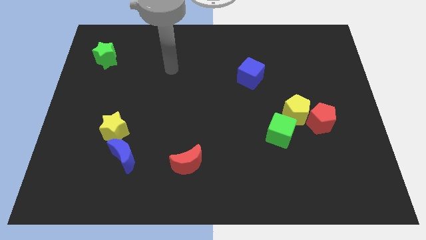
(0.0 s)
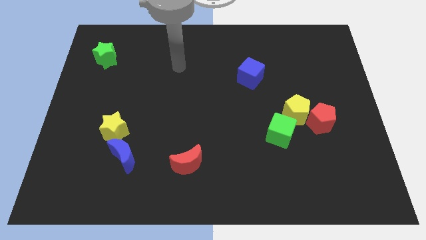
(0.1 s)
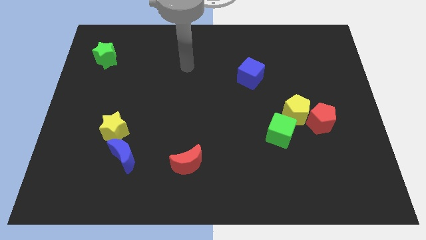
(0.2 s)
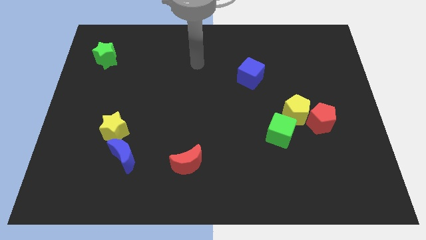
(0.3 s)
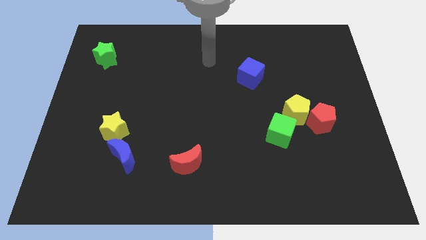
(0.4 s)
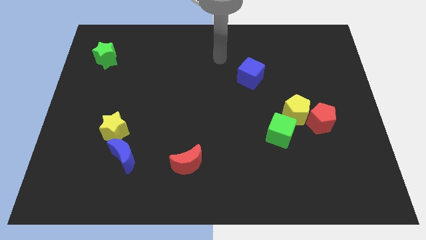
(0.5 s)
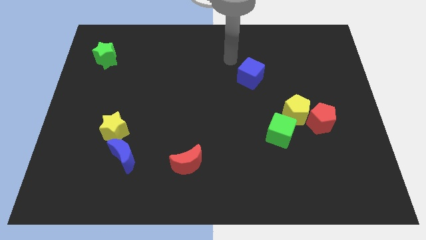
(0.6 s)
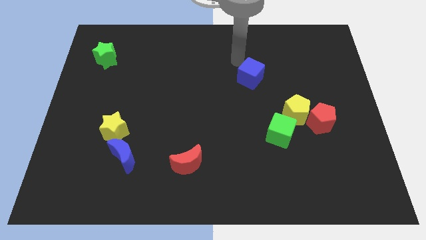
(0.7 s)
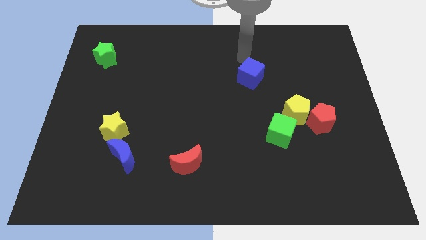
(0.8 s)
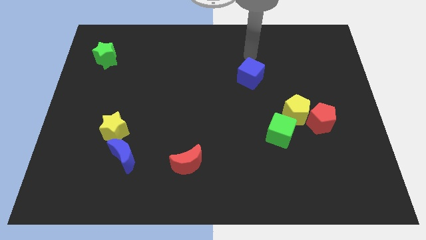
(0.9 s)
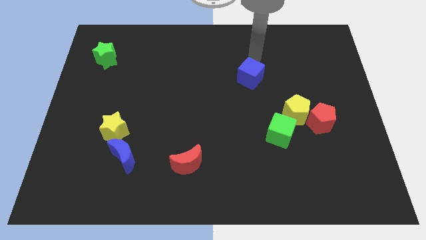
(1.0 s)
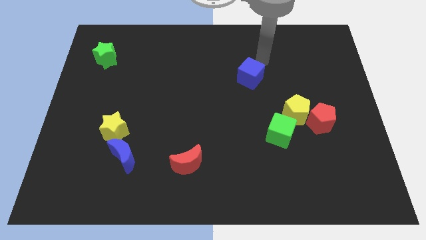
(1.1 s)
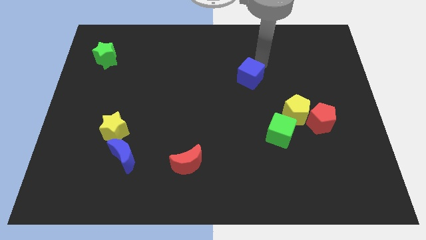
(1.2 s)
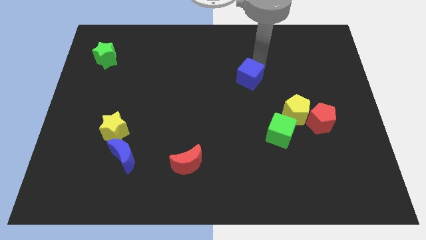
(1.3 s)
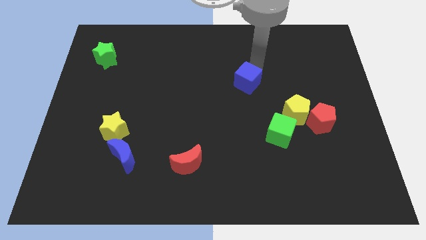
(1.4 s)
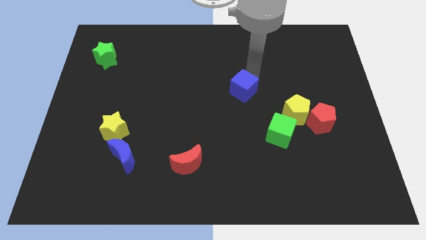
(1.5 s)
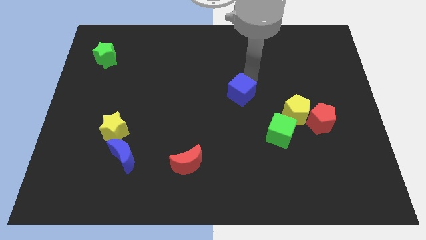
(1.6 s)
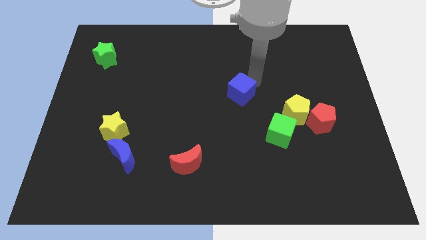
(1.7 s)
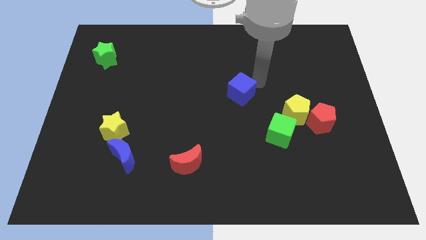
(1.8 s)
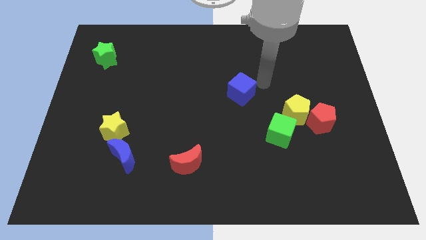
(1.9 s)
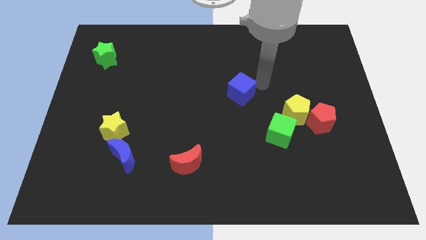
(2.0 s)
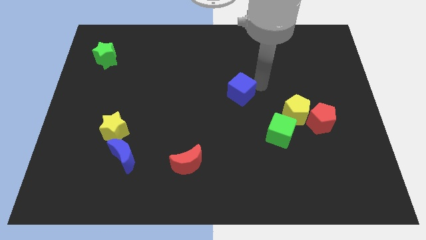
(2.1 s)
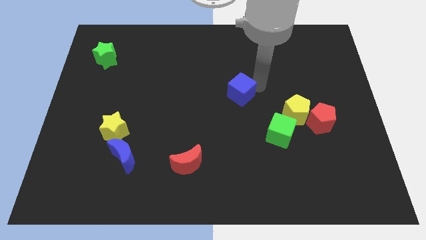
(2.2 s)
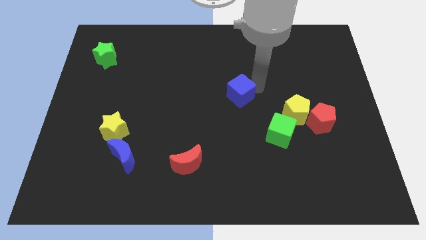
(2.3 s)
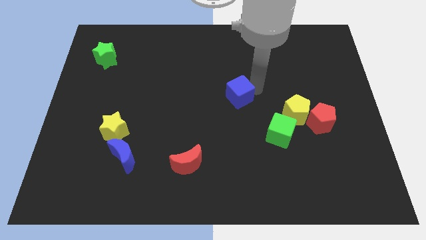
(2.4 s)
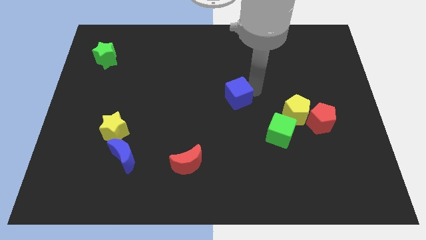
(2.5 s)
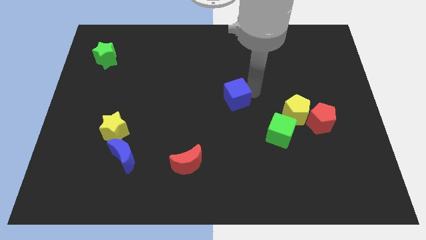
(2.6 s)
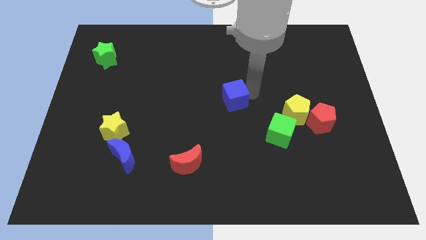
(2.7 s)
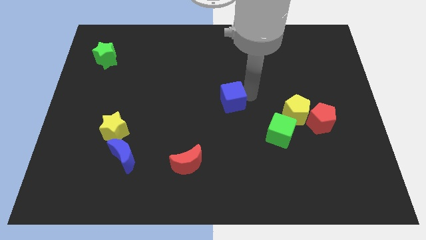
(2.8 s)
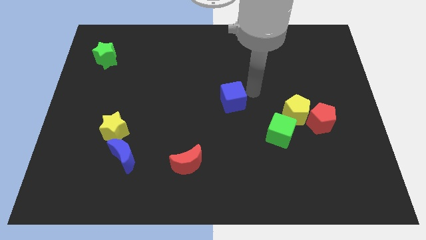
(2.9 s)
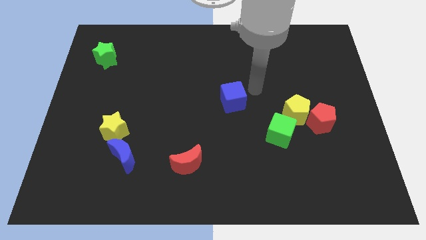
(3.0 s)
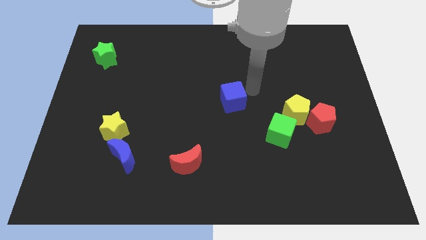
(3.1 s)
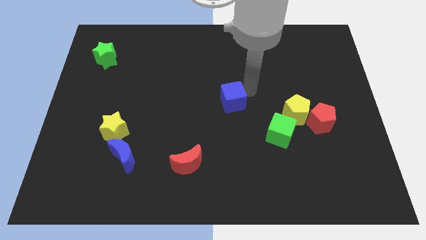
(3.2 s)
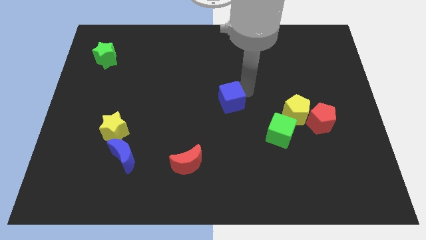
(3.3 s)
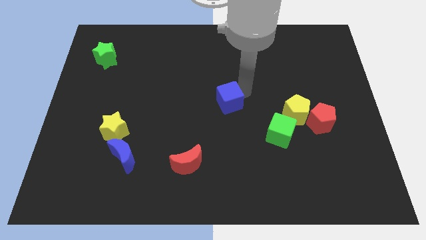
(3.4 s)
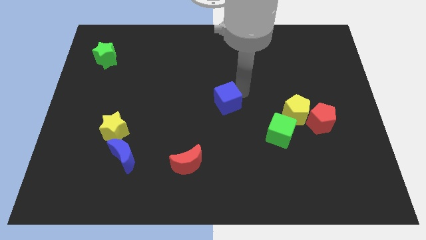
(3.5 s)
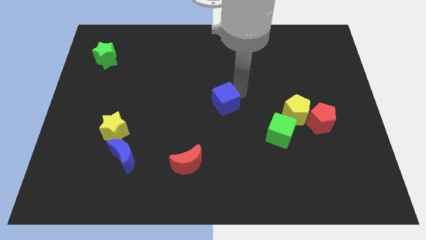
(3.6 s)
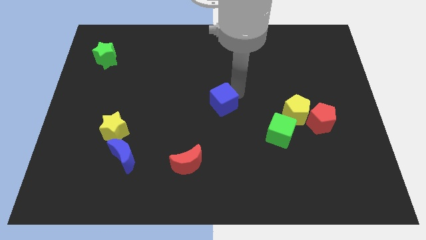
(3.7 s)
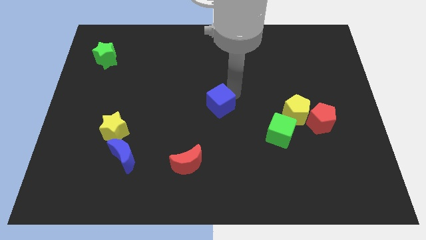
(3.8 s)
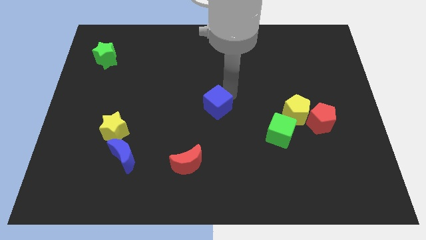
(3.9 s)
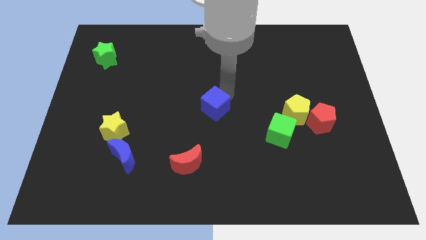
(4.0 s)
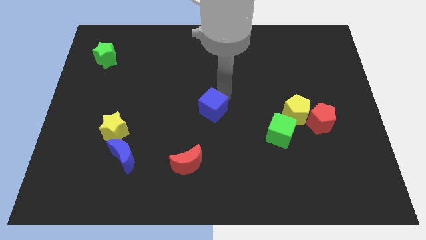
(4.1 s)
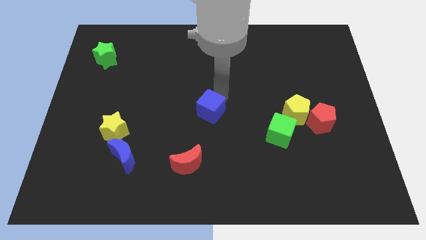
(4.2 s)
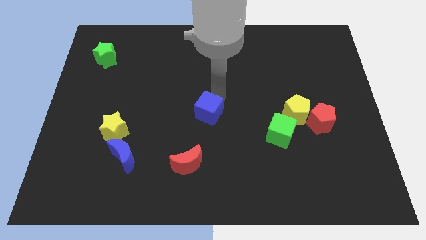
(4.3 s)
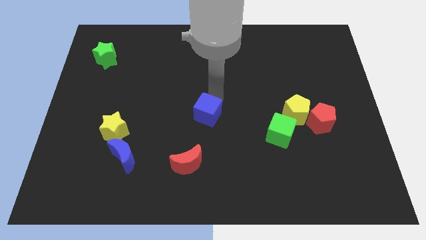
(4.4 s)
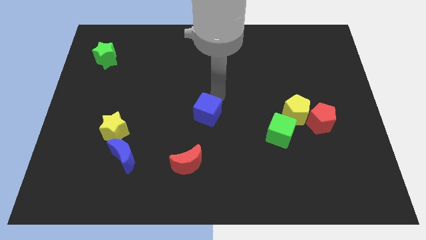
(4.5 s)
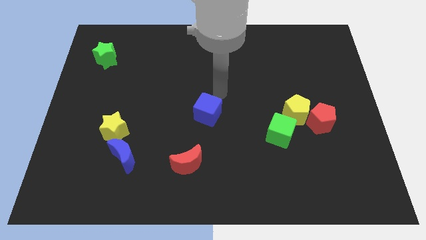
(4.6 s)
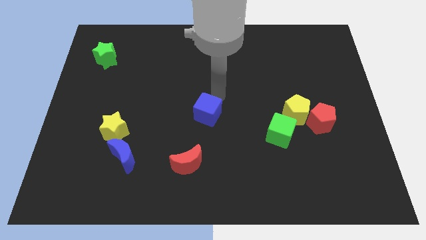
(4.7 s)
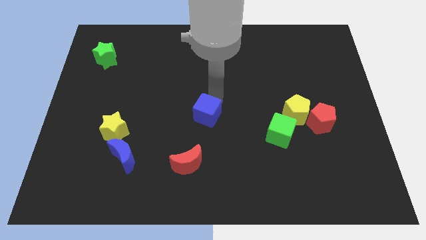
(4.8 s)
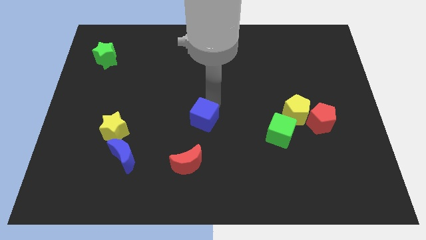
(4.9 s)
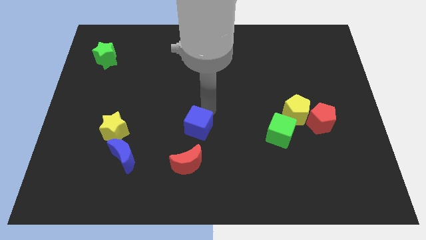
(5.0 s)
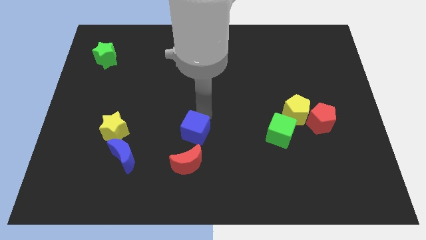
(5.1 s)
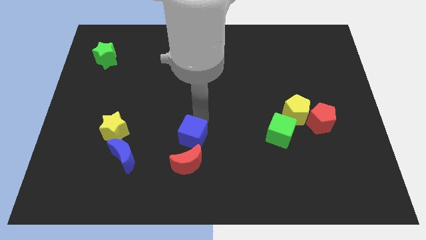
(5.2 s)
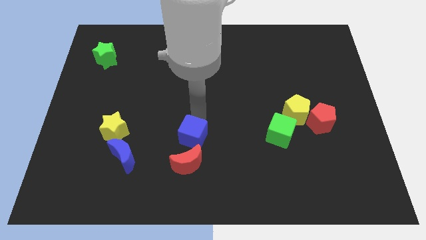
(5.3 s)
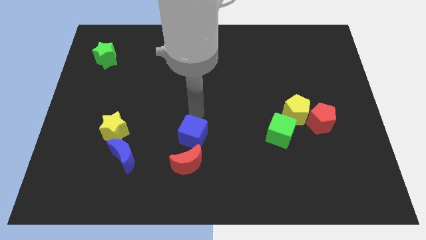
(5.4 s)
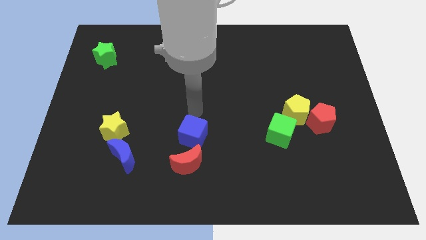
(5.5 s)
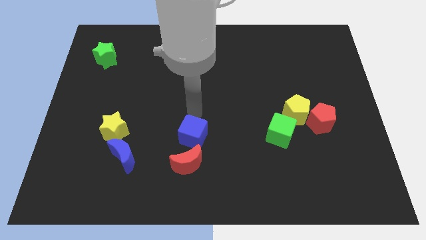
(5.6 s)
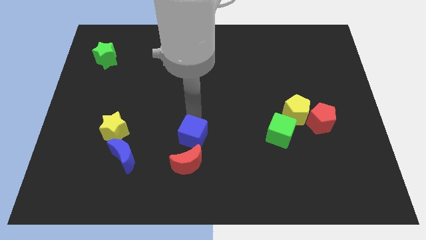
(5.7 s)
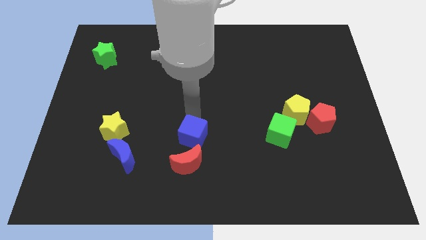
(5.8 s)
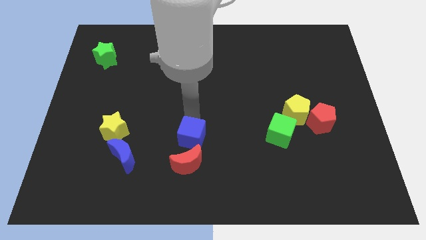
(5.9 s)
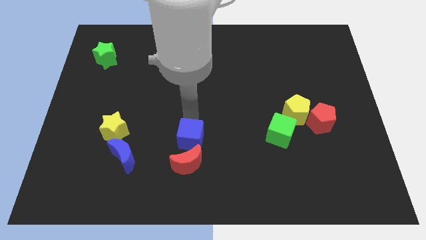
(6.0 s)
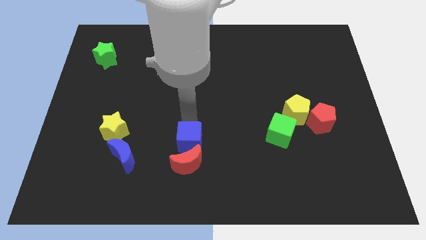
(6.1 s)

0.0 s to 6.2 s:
push the blue cube next to the red moon

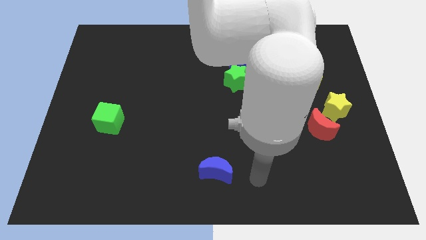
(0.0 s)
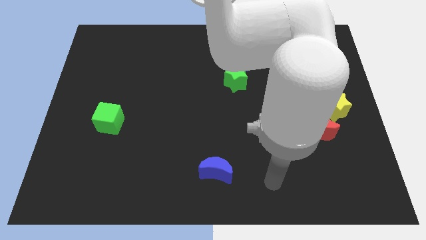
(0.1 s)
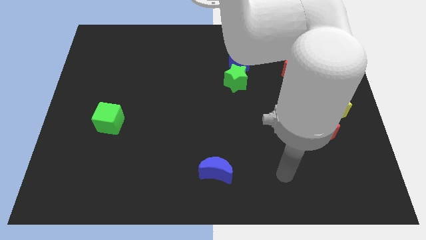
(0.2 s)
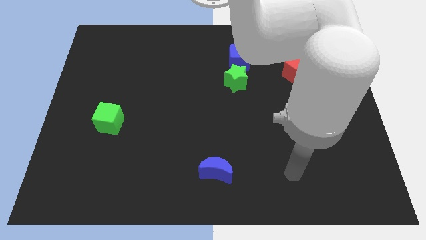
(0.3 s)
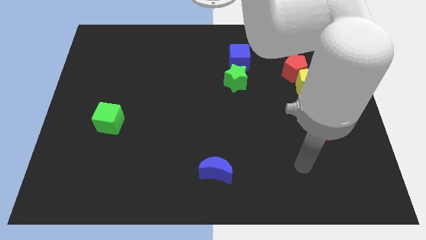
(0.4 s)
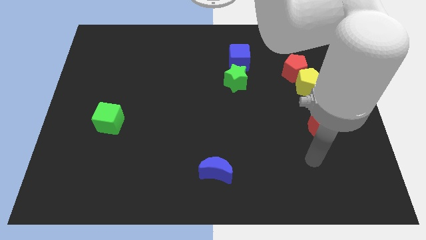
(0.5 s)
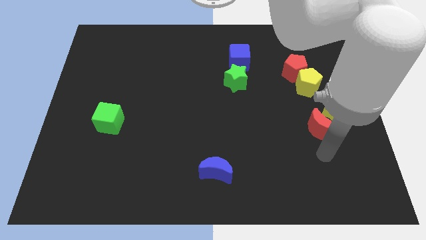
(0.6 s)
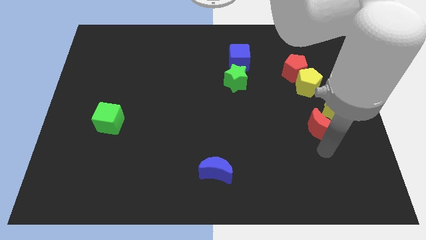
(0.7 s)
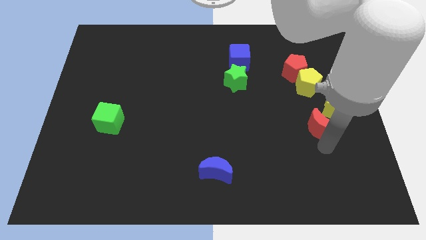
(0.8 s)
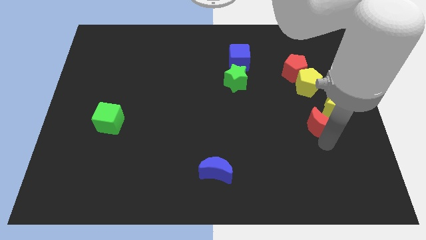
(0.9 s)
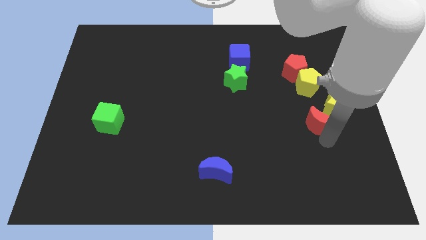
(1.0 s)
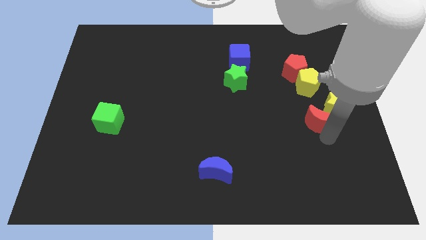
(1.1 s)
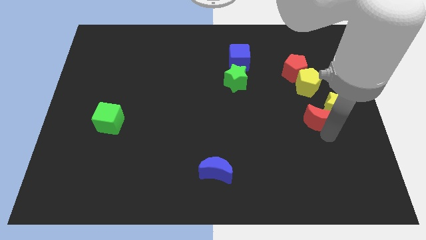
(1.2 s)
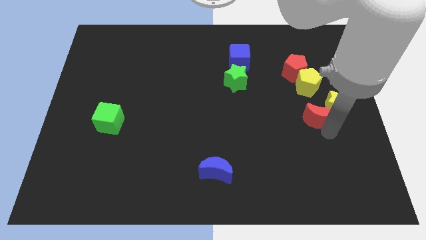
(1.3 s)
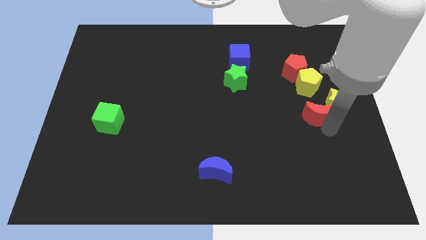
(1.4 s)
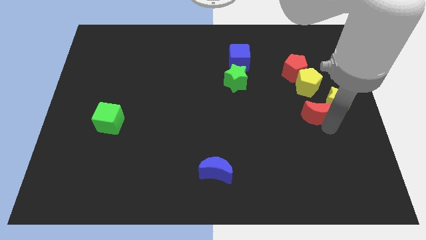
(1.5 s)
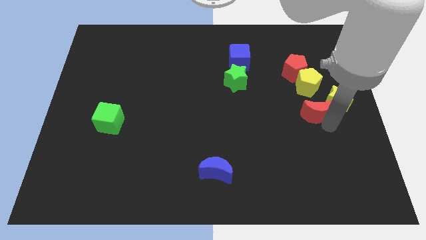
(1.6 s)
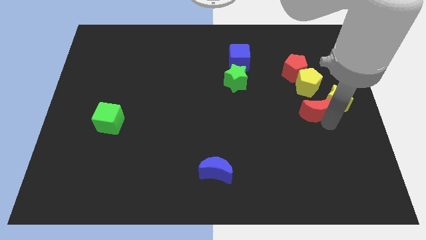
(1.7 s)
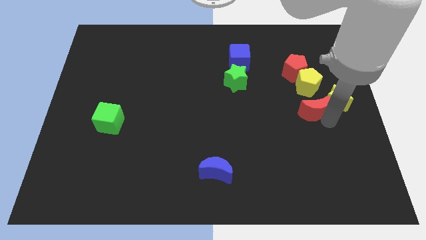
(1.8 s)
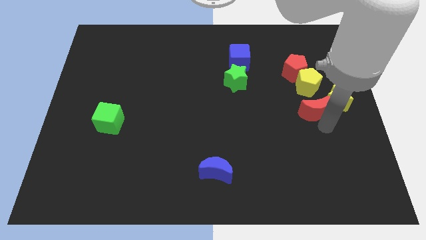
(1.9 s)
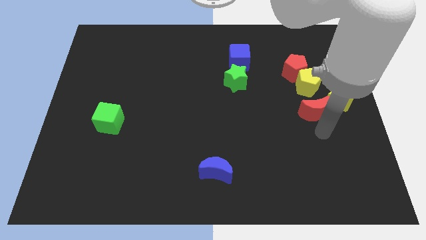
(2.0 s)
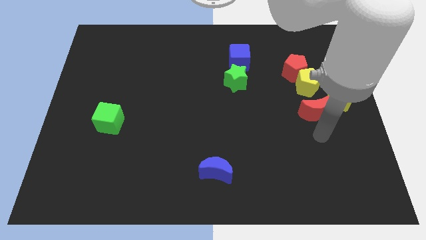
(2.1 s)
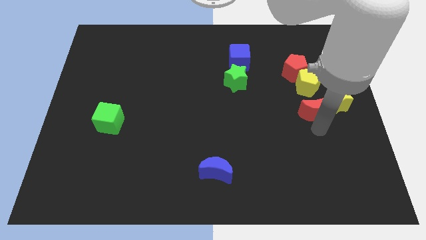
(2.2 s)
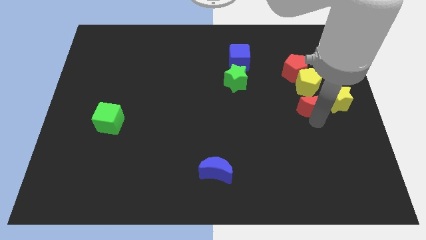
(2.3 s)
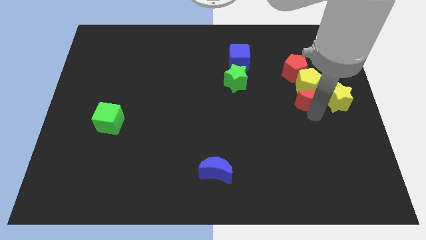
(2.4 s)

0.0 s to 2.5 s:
put the red moon towards the yellow pentagon
